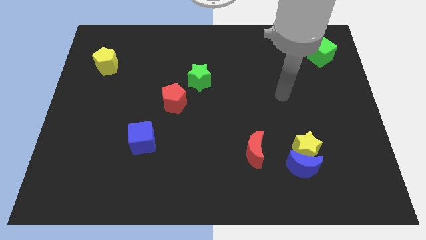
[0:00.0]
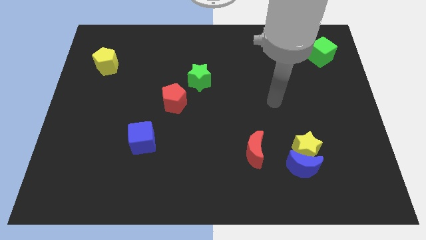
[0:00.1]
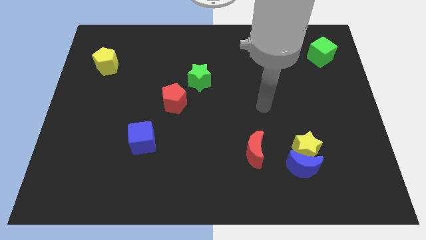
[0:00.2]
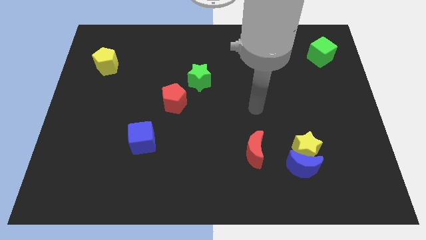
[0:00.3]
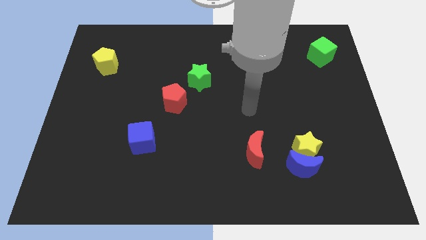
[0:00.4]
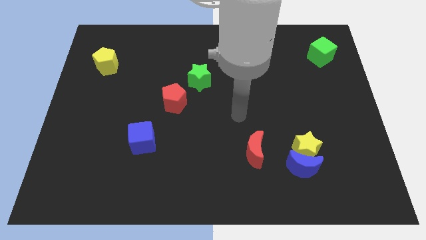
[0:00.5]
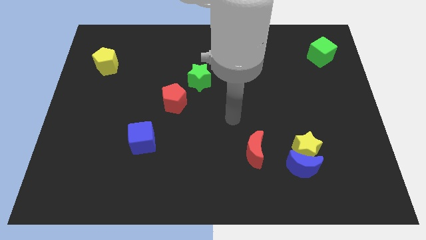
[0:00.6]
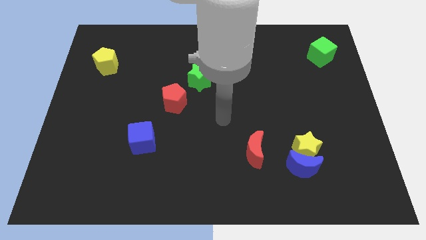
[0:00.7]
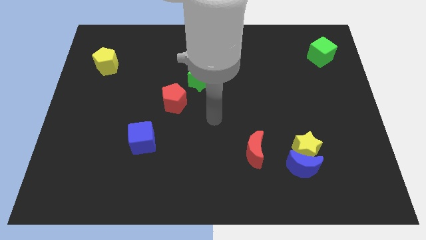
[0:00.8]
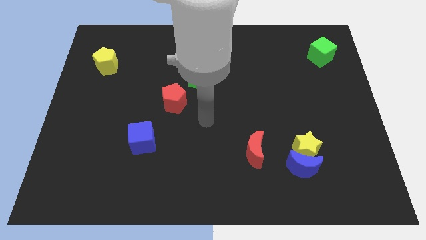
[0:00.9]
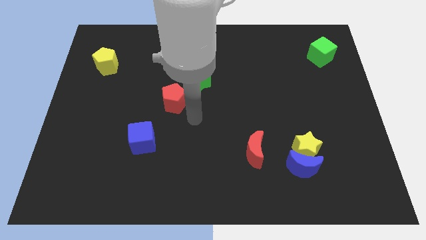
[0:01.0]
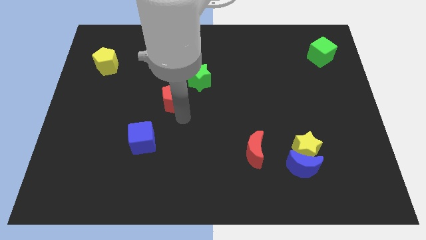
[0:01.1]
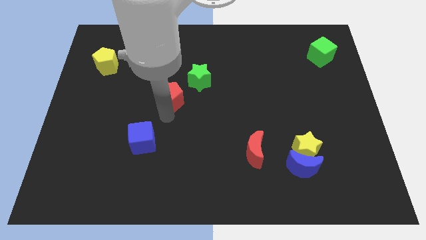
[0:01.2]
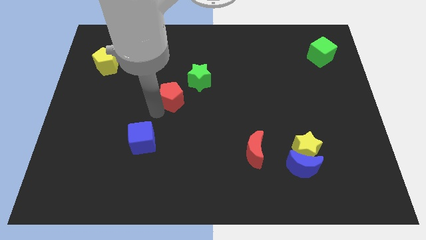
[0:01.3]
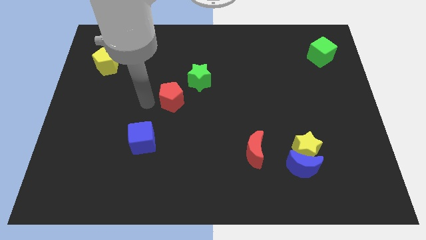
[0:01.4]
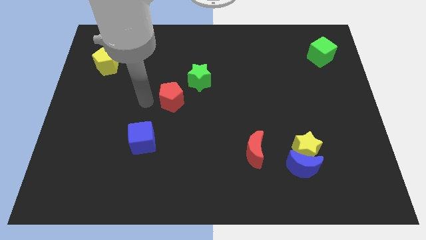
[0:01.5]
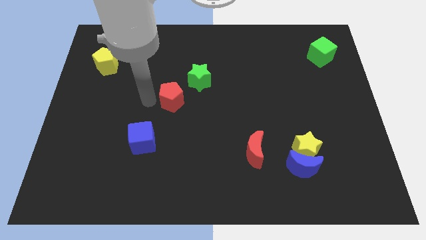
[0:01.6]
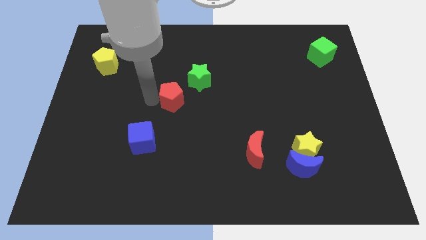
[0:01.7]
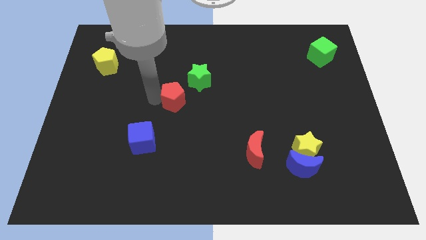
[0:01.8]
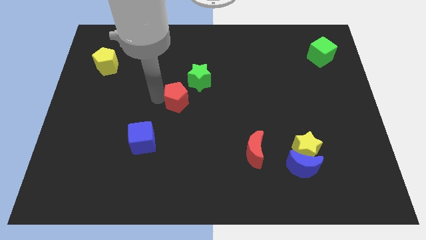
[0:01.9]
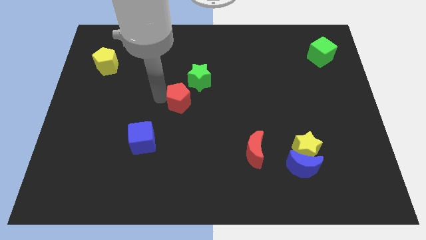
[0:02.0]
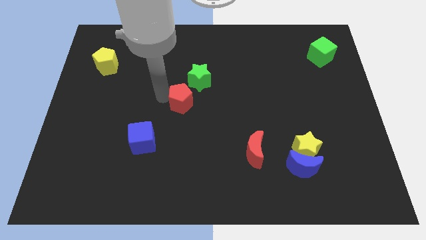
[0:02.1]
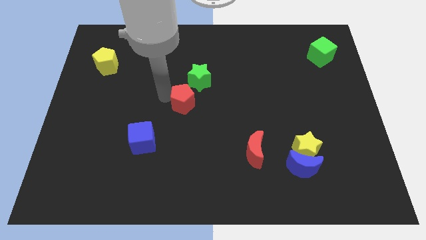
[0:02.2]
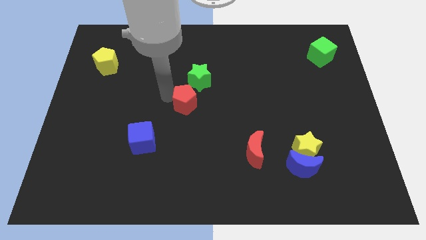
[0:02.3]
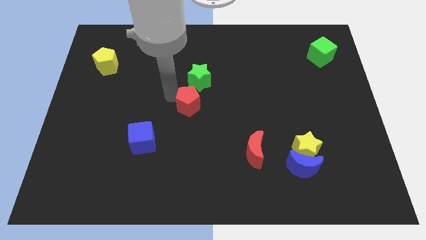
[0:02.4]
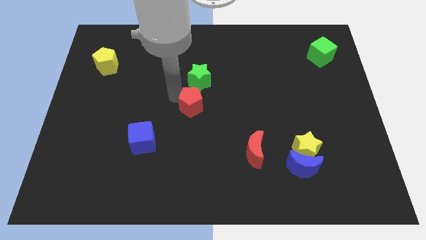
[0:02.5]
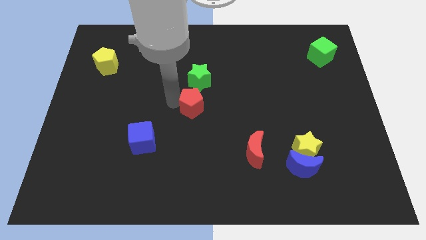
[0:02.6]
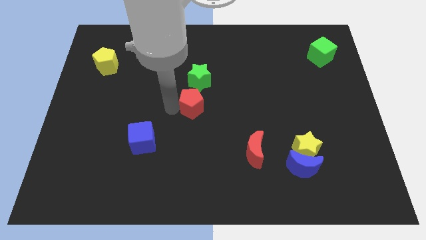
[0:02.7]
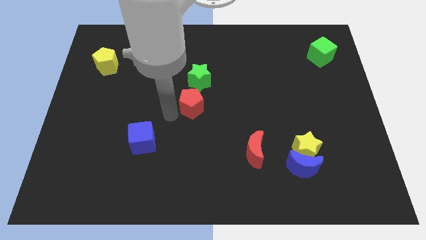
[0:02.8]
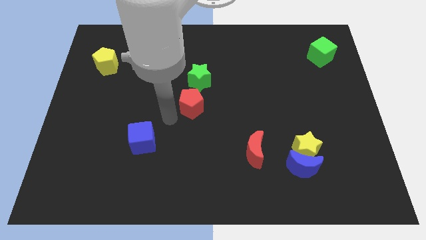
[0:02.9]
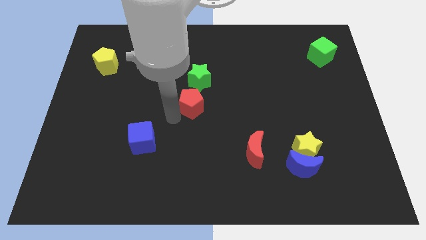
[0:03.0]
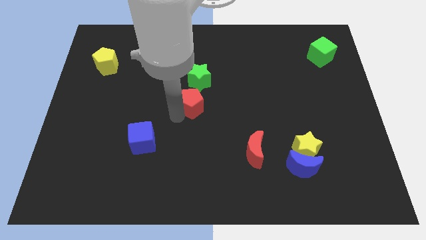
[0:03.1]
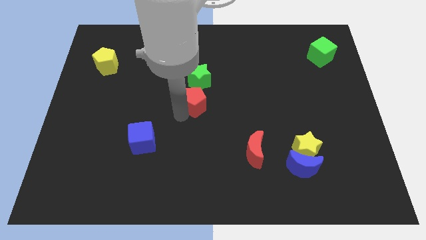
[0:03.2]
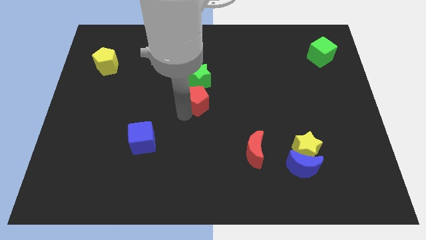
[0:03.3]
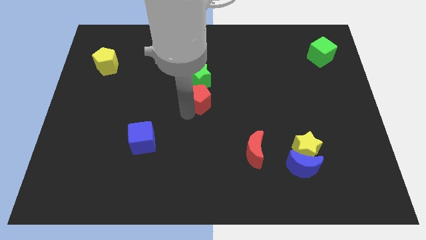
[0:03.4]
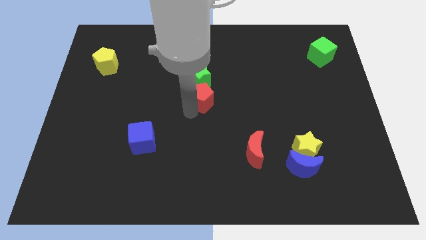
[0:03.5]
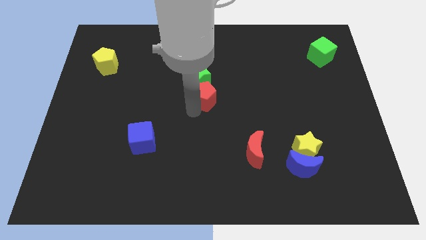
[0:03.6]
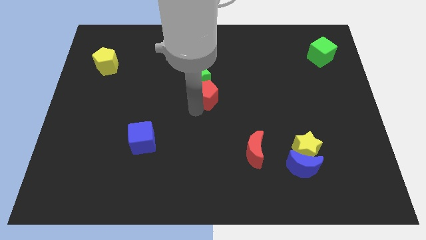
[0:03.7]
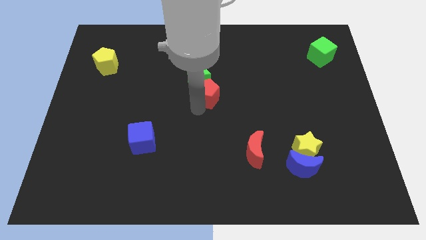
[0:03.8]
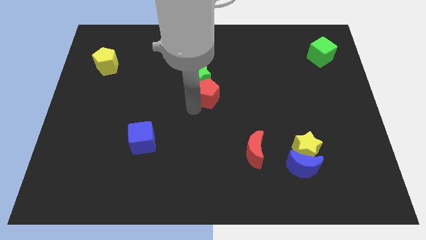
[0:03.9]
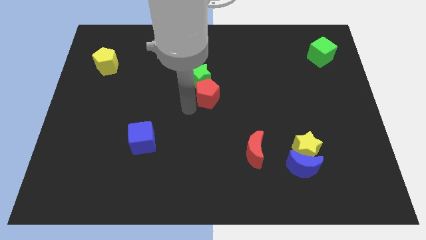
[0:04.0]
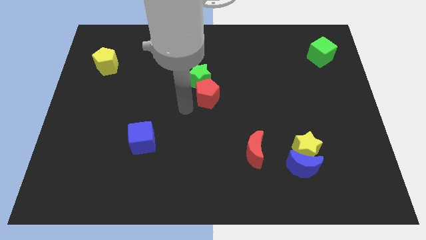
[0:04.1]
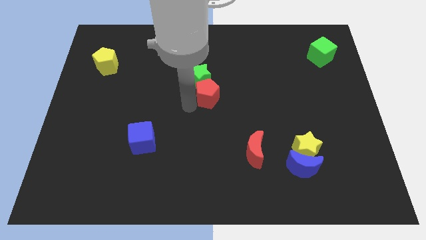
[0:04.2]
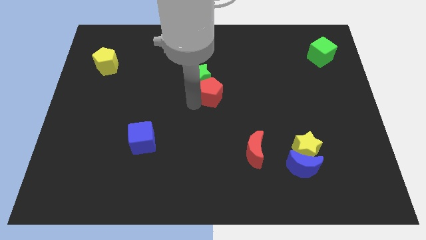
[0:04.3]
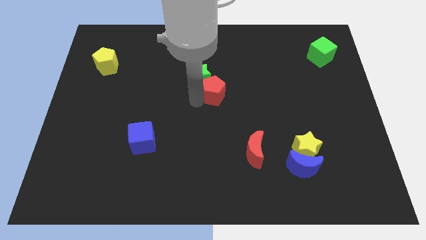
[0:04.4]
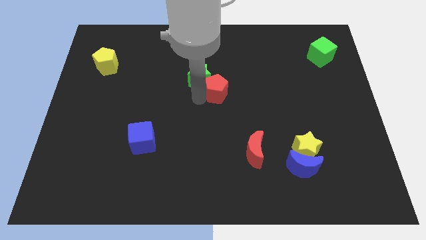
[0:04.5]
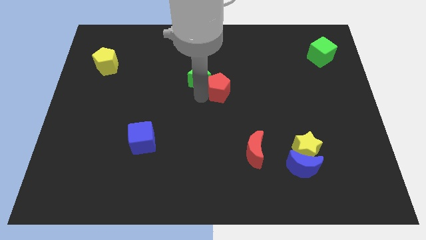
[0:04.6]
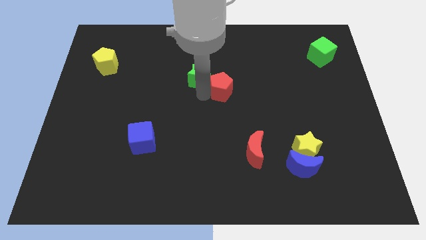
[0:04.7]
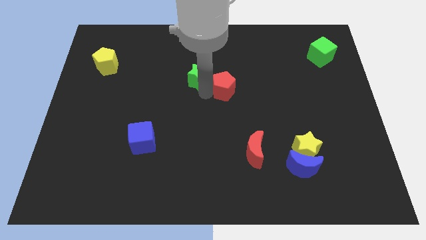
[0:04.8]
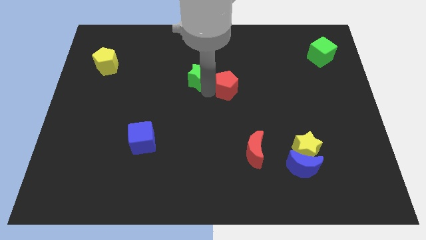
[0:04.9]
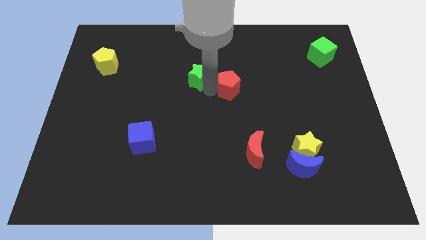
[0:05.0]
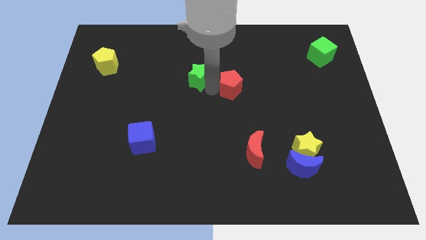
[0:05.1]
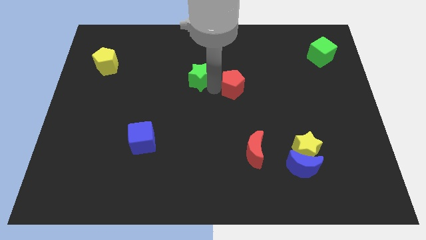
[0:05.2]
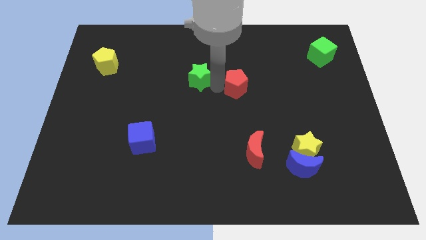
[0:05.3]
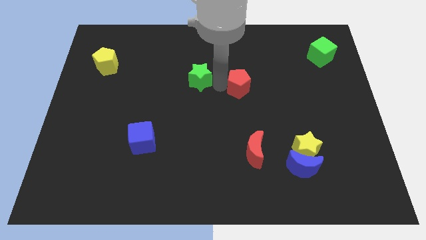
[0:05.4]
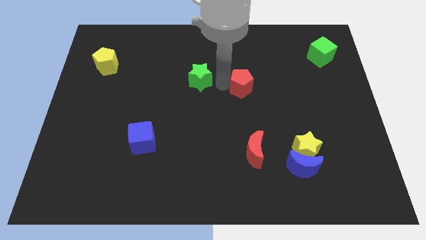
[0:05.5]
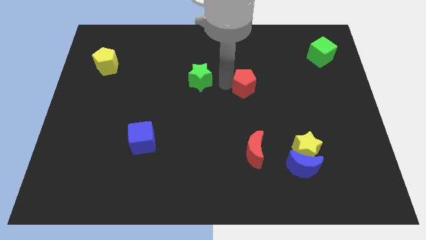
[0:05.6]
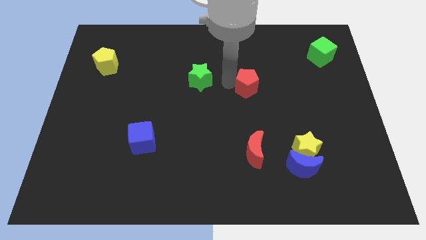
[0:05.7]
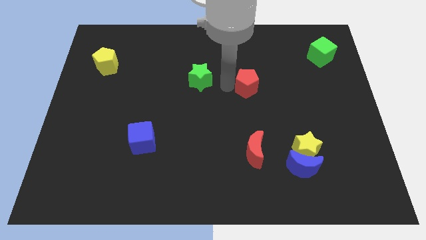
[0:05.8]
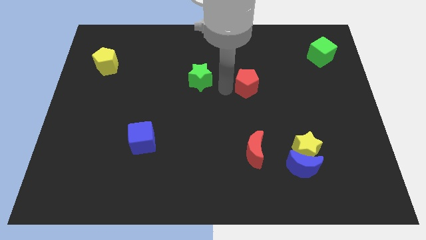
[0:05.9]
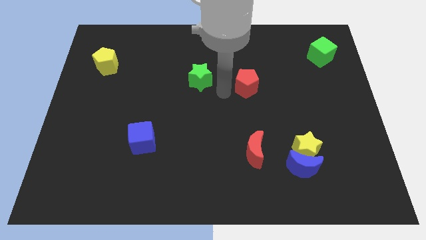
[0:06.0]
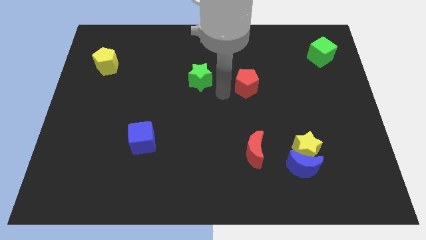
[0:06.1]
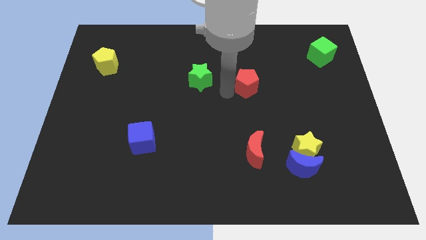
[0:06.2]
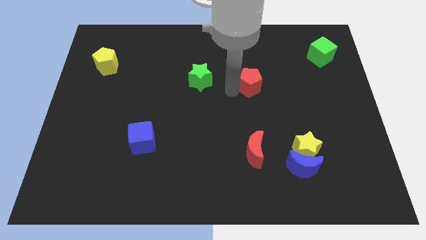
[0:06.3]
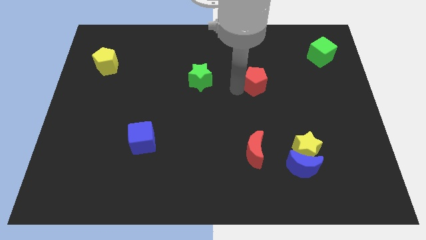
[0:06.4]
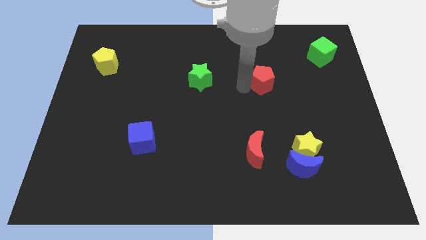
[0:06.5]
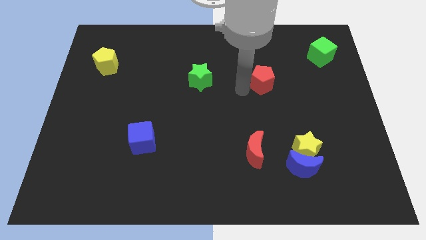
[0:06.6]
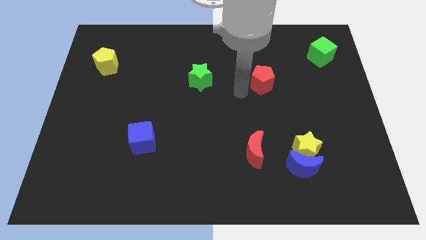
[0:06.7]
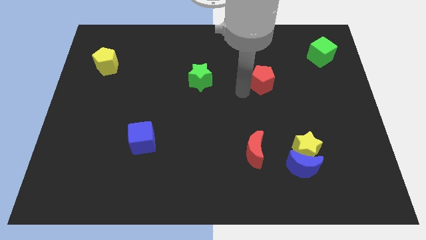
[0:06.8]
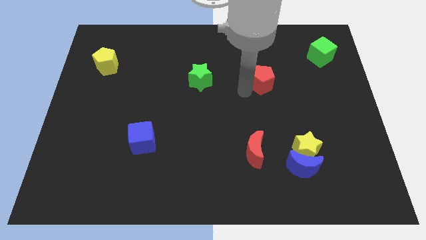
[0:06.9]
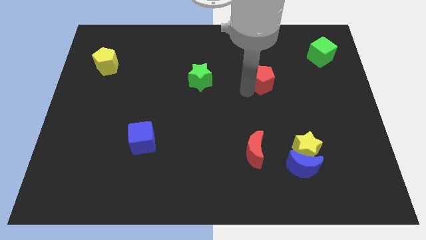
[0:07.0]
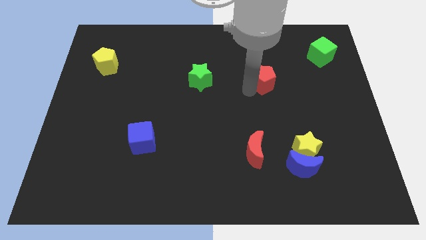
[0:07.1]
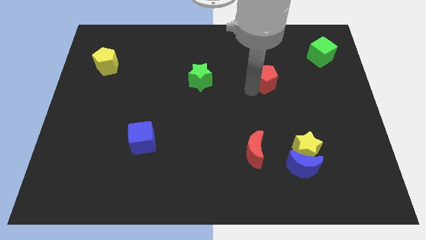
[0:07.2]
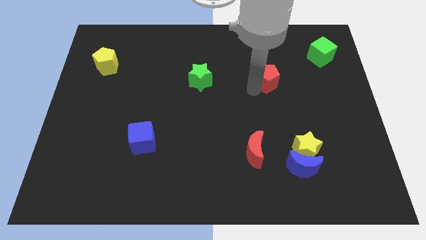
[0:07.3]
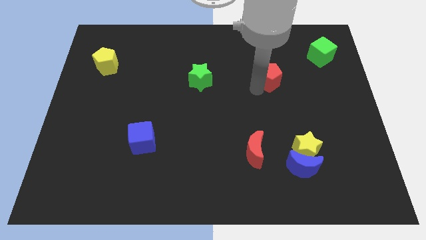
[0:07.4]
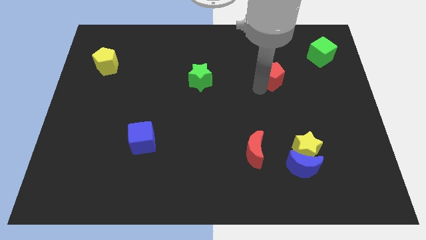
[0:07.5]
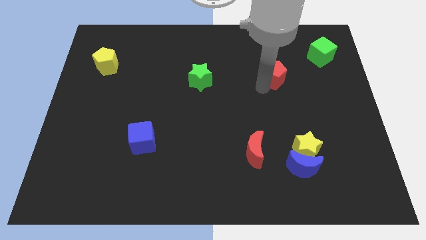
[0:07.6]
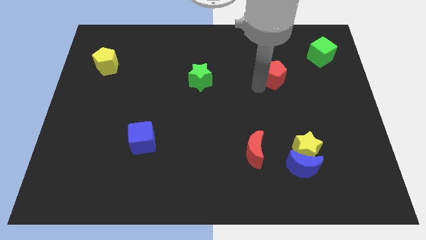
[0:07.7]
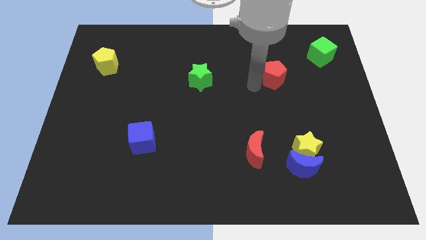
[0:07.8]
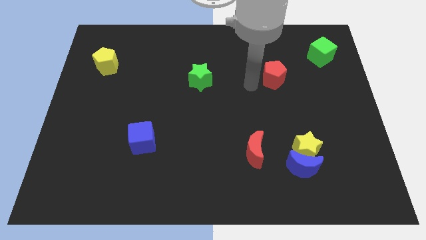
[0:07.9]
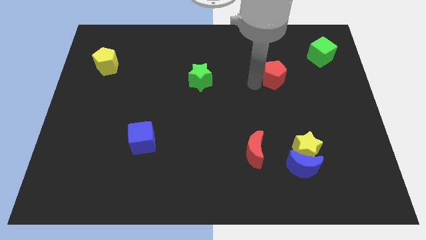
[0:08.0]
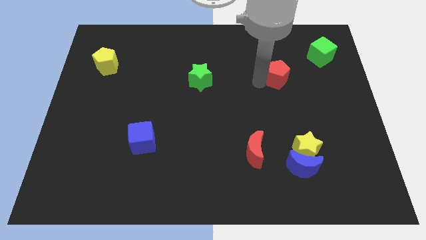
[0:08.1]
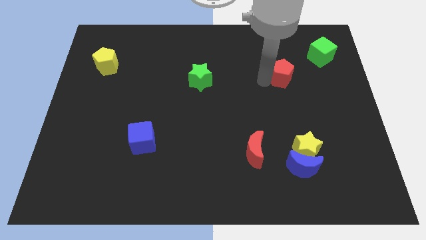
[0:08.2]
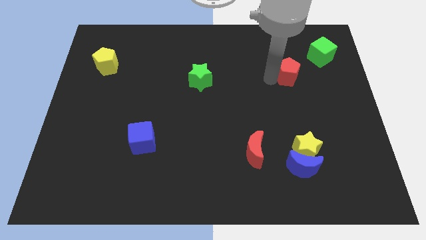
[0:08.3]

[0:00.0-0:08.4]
push the red pentagon to the bottom left side of the green cube
